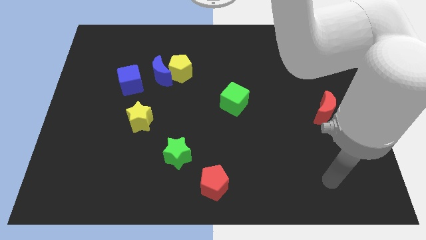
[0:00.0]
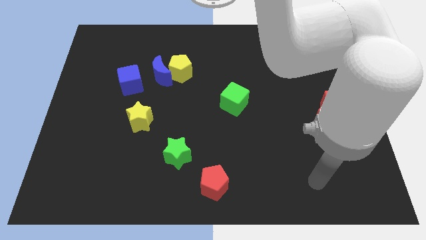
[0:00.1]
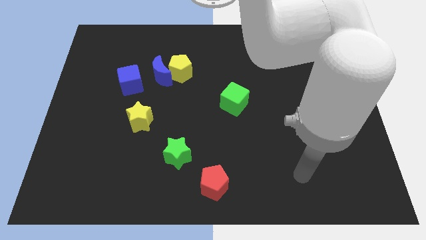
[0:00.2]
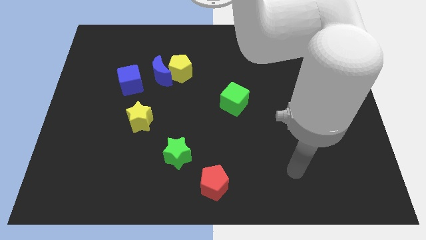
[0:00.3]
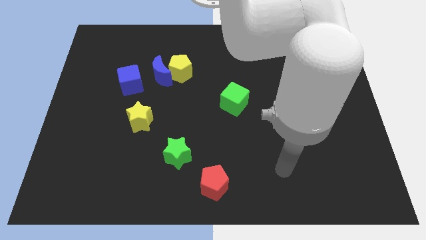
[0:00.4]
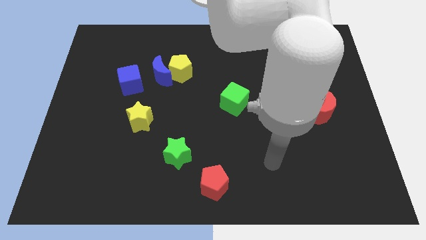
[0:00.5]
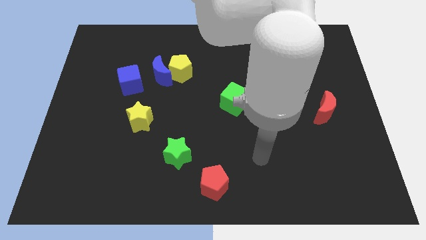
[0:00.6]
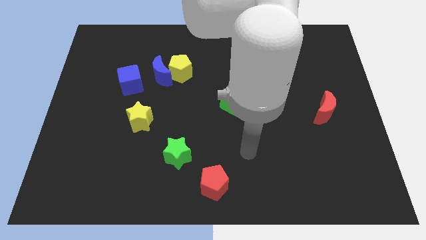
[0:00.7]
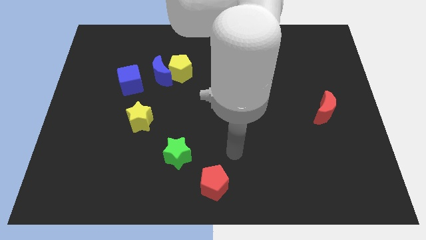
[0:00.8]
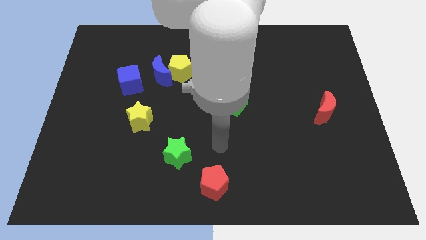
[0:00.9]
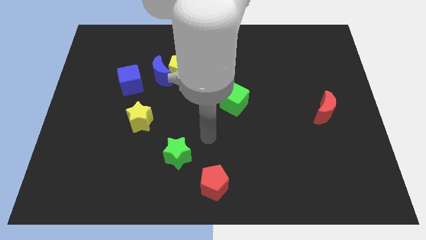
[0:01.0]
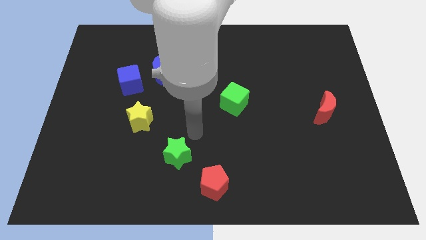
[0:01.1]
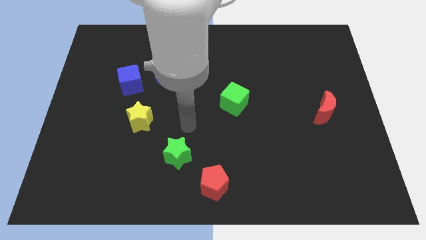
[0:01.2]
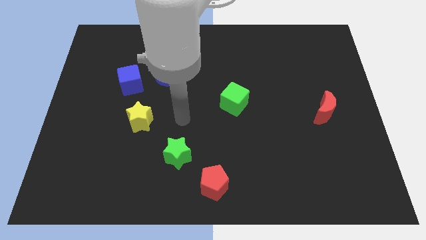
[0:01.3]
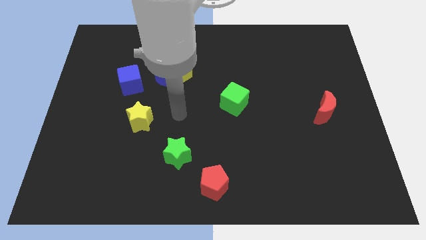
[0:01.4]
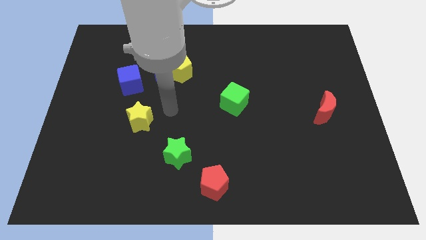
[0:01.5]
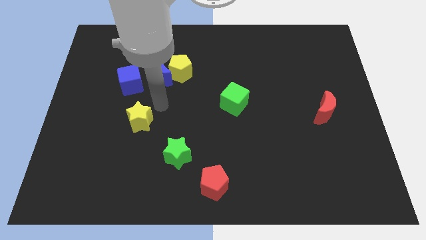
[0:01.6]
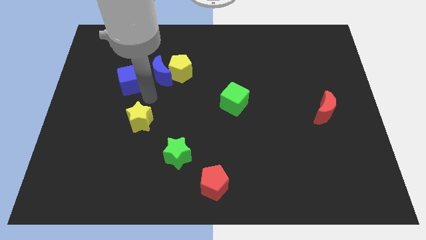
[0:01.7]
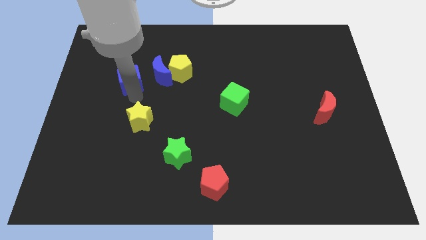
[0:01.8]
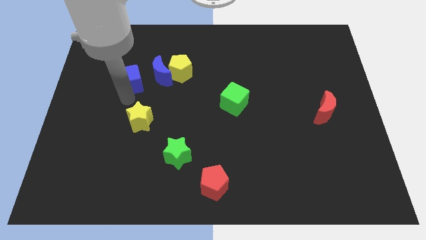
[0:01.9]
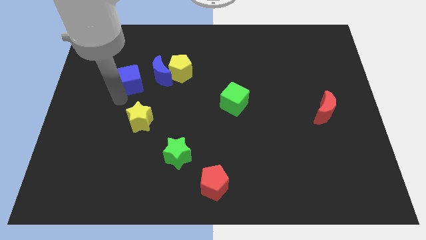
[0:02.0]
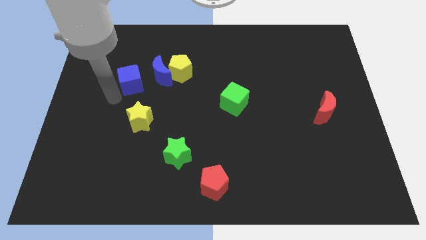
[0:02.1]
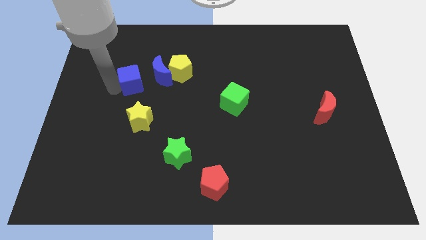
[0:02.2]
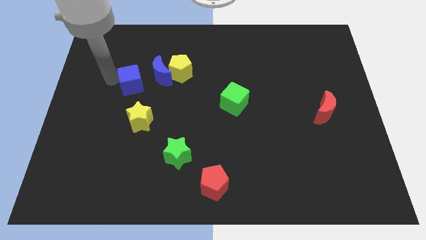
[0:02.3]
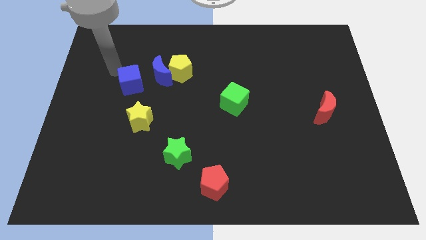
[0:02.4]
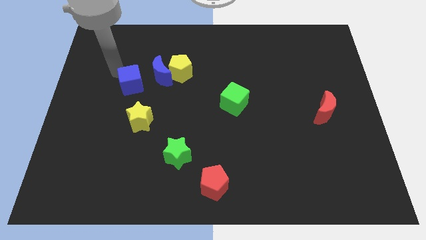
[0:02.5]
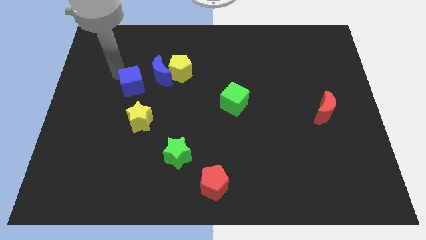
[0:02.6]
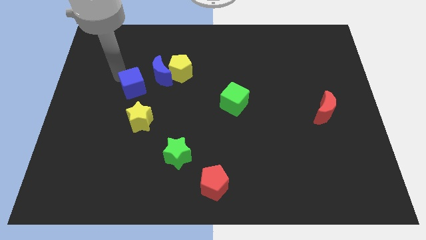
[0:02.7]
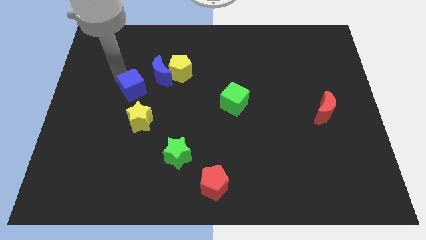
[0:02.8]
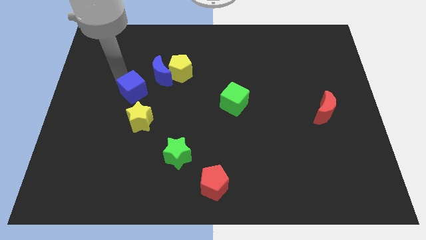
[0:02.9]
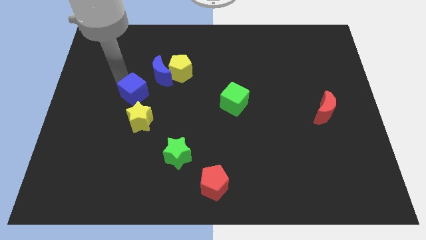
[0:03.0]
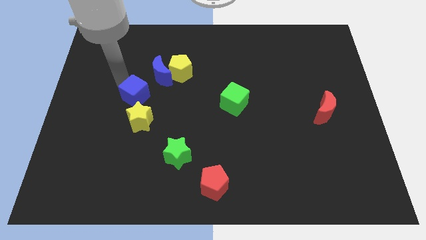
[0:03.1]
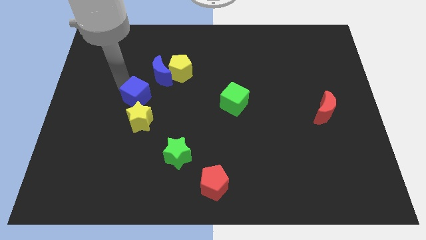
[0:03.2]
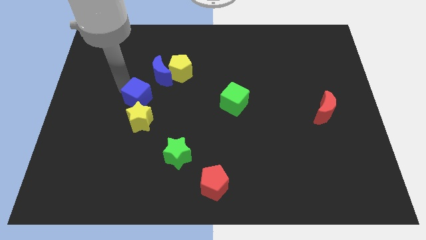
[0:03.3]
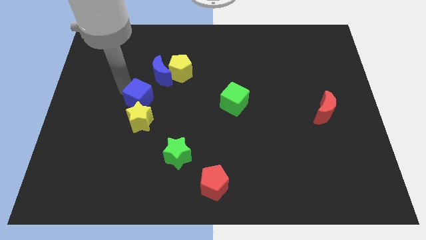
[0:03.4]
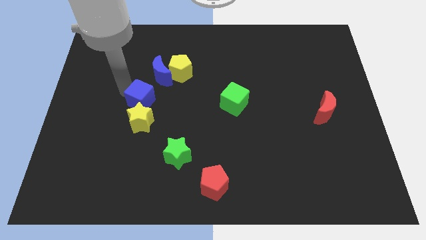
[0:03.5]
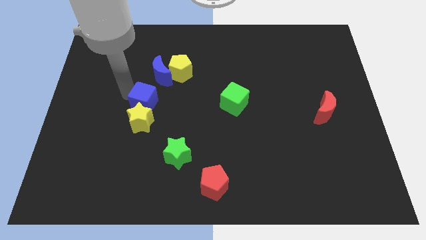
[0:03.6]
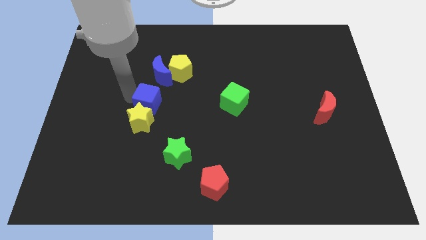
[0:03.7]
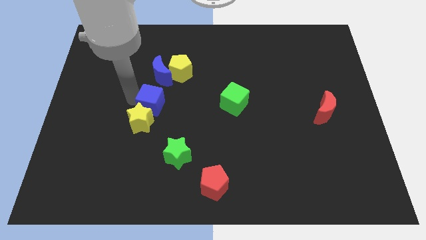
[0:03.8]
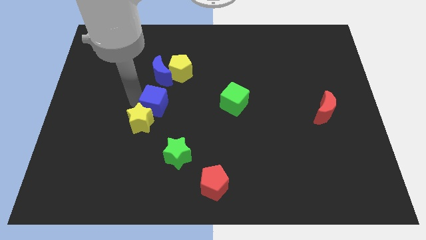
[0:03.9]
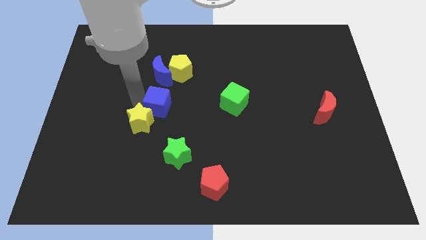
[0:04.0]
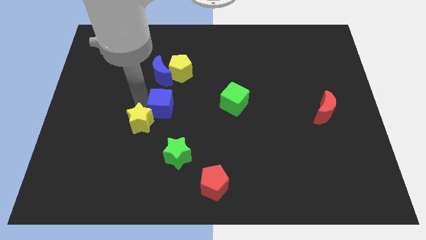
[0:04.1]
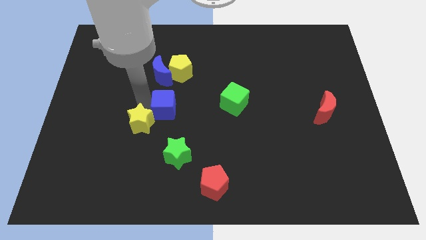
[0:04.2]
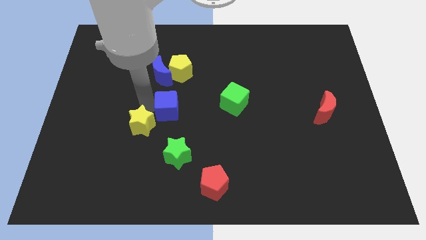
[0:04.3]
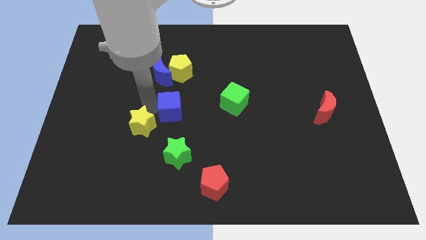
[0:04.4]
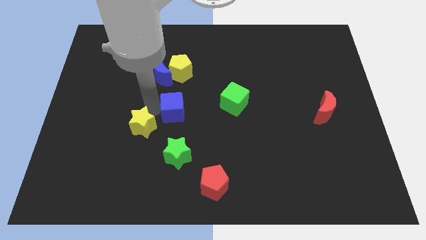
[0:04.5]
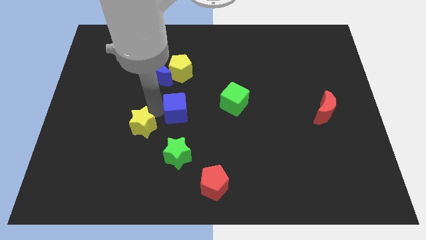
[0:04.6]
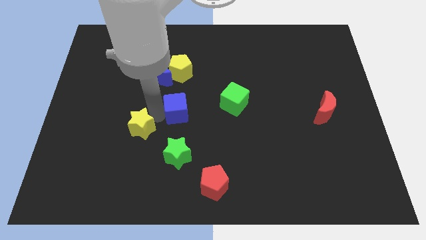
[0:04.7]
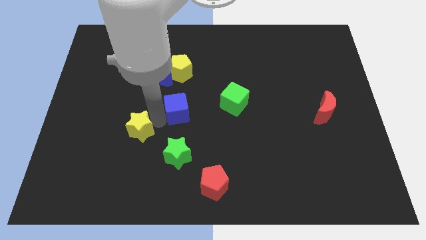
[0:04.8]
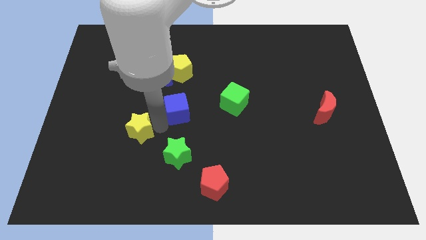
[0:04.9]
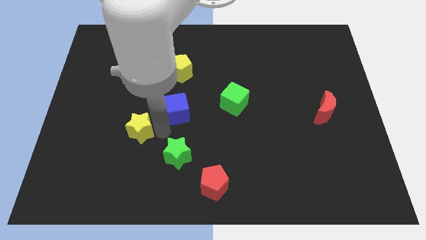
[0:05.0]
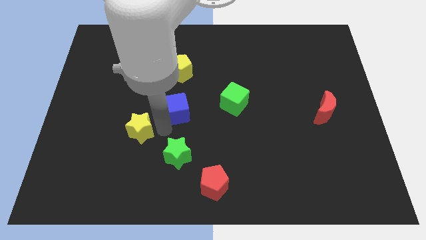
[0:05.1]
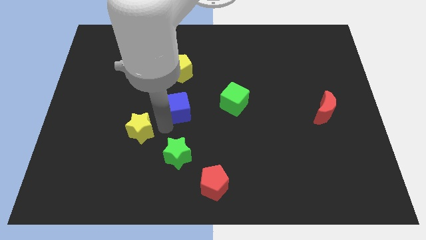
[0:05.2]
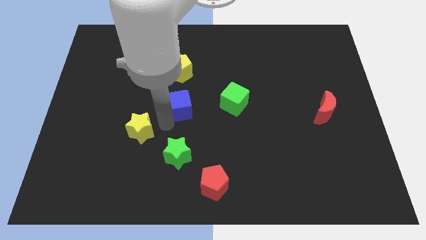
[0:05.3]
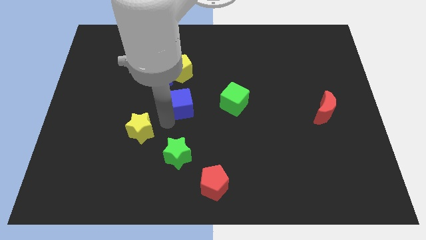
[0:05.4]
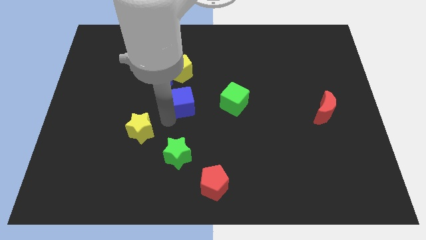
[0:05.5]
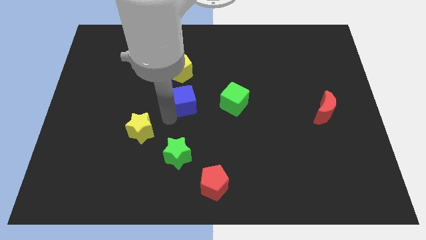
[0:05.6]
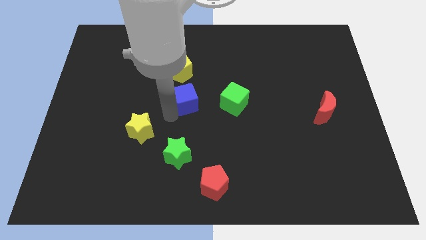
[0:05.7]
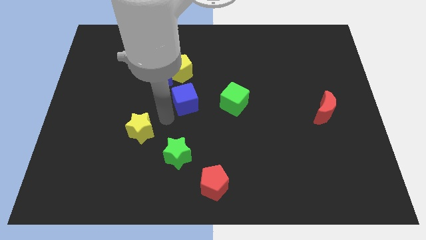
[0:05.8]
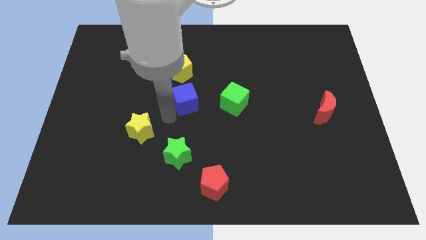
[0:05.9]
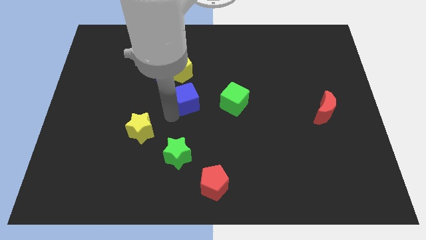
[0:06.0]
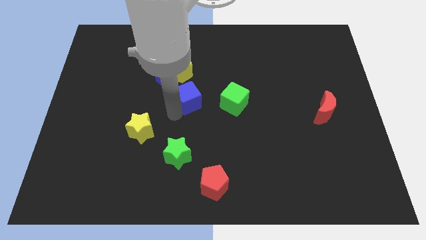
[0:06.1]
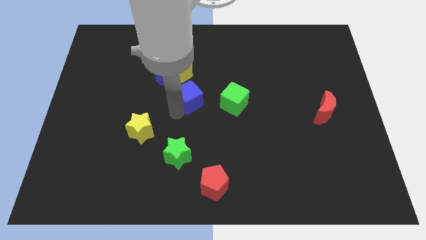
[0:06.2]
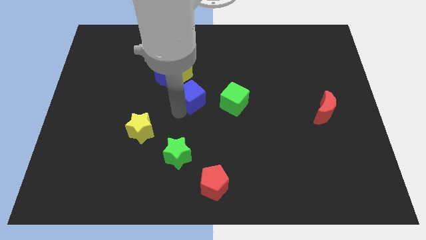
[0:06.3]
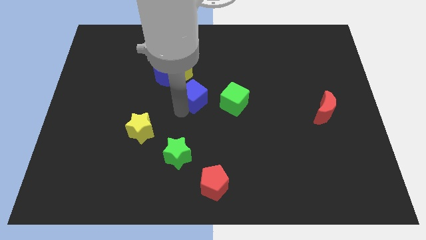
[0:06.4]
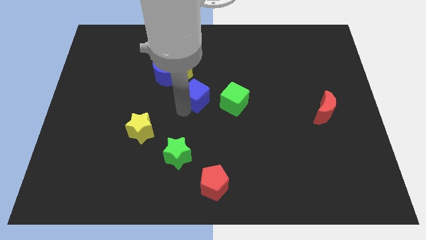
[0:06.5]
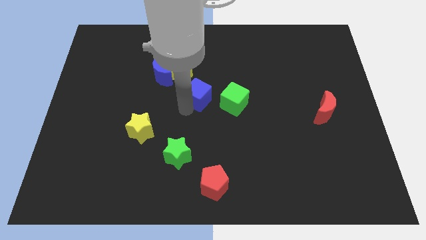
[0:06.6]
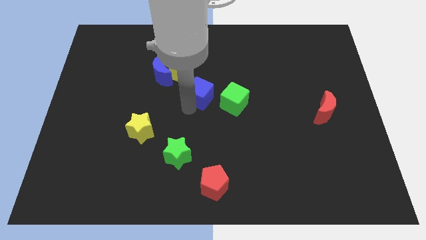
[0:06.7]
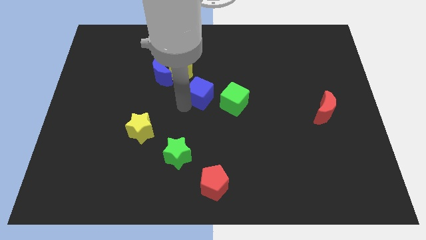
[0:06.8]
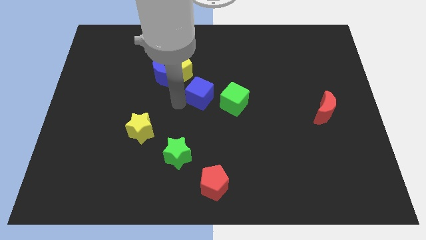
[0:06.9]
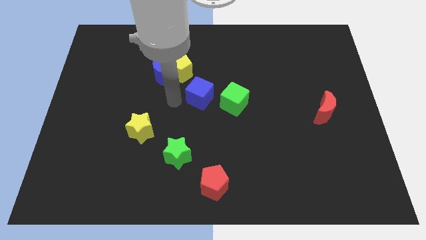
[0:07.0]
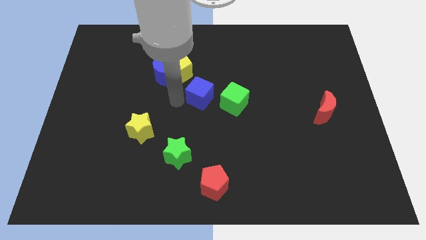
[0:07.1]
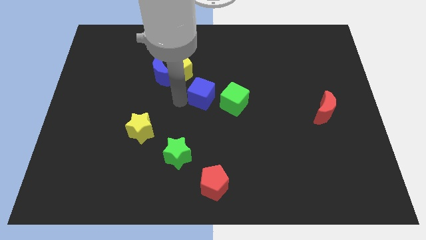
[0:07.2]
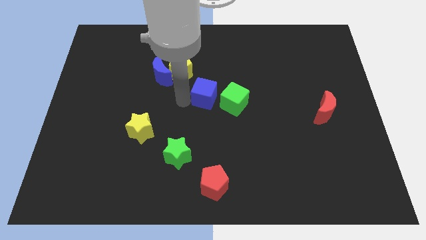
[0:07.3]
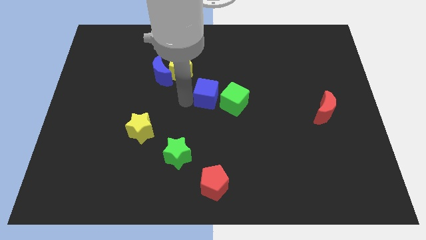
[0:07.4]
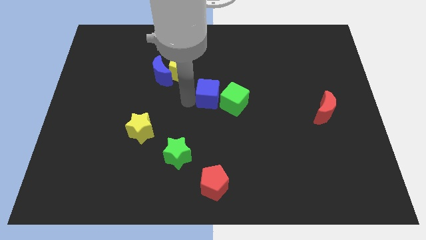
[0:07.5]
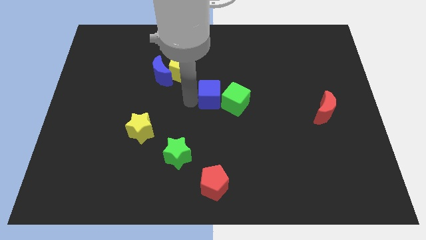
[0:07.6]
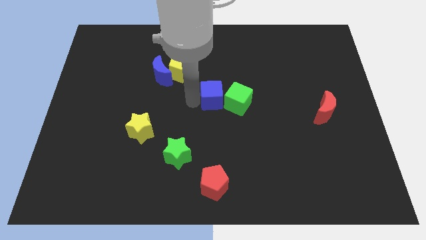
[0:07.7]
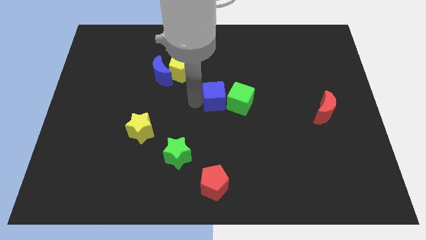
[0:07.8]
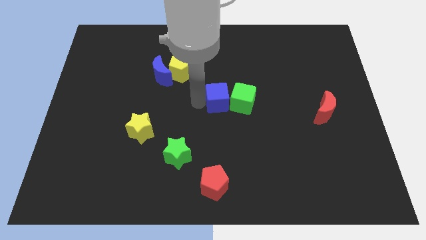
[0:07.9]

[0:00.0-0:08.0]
slide the blue cube right
